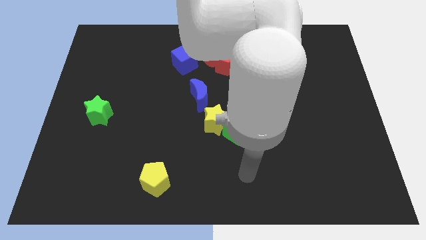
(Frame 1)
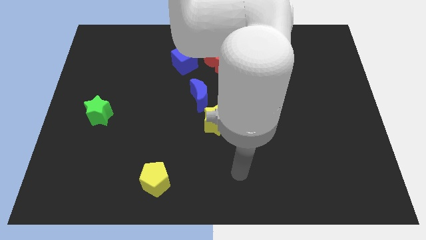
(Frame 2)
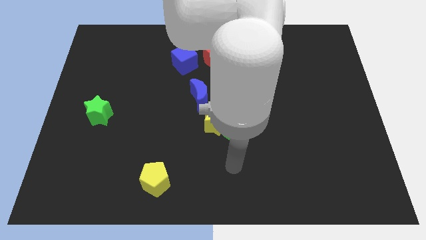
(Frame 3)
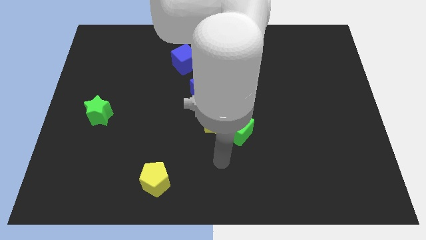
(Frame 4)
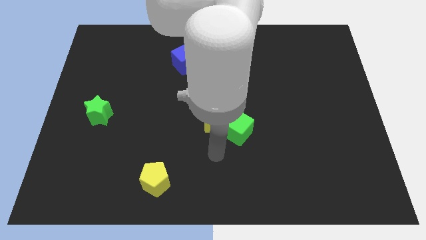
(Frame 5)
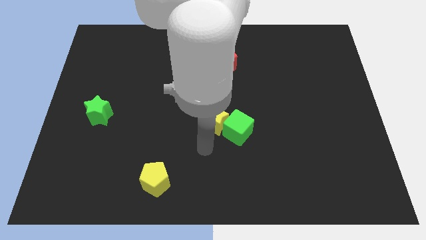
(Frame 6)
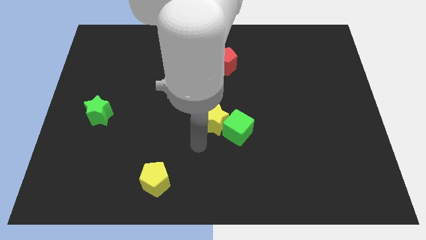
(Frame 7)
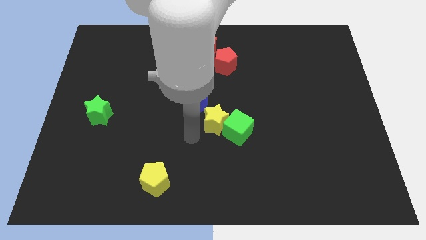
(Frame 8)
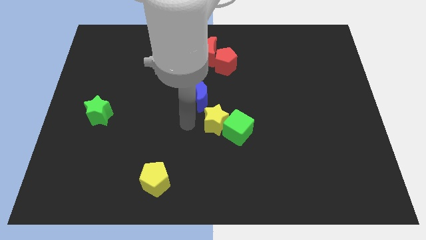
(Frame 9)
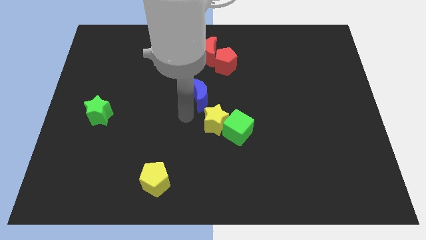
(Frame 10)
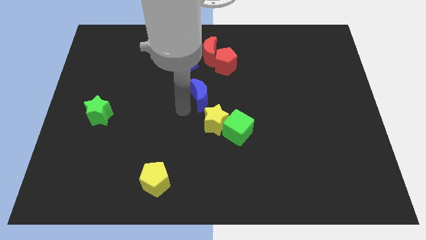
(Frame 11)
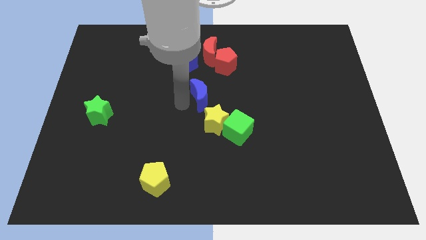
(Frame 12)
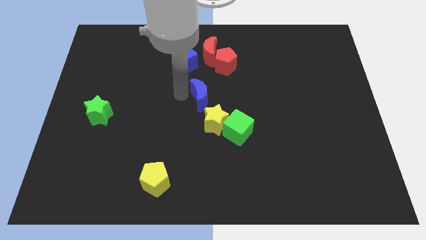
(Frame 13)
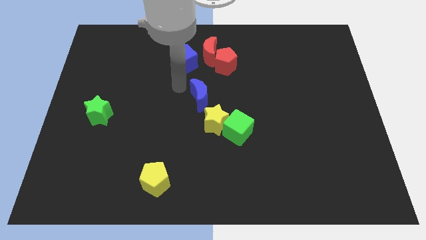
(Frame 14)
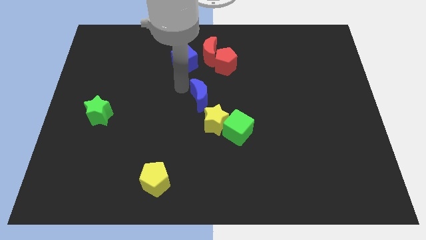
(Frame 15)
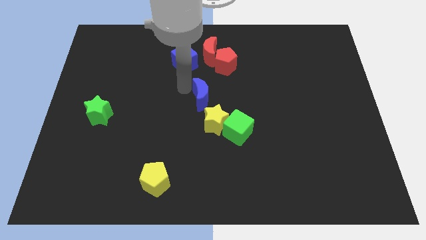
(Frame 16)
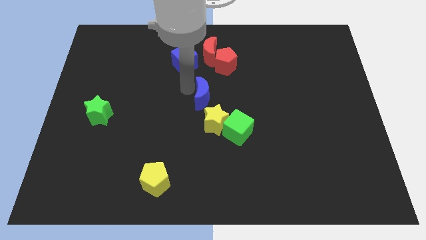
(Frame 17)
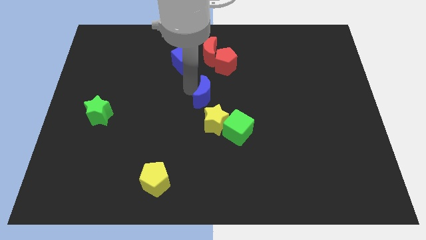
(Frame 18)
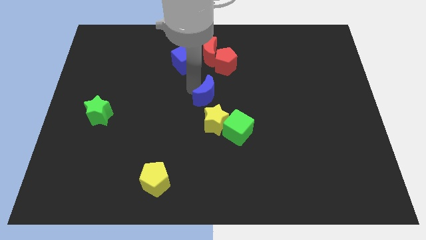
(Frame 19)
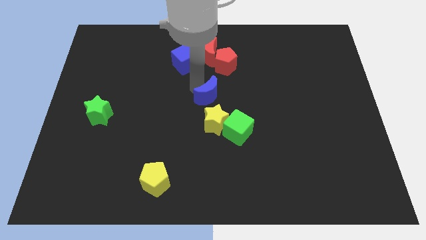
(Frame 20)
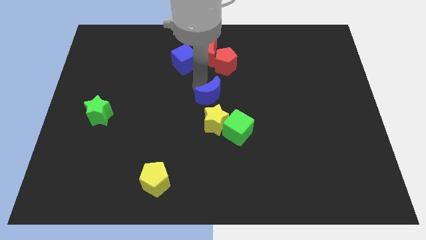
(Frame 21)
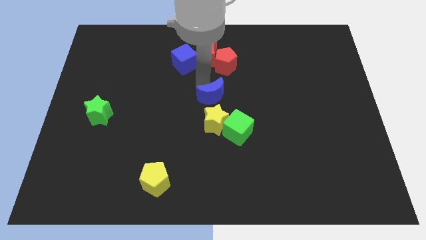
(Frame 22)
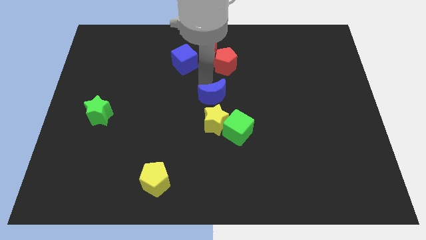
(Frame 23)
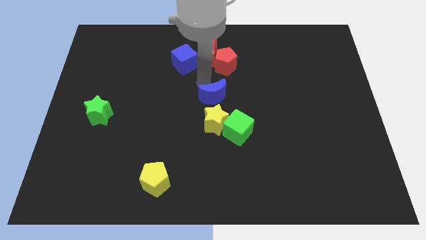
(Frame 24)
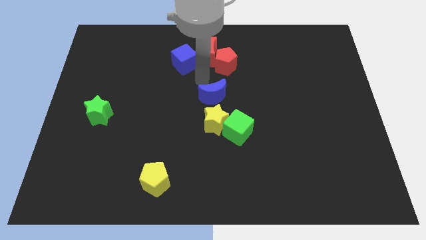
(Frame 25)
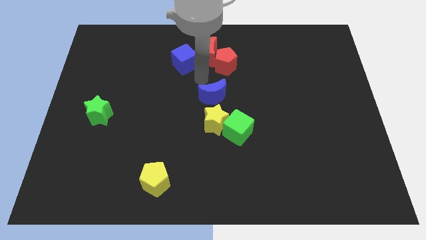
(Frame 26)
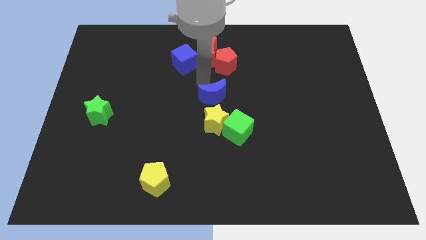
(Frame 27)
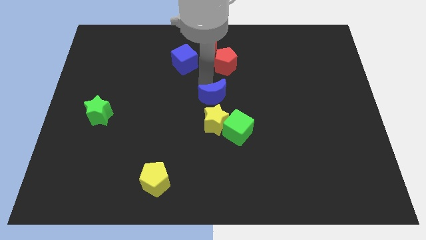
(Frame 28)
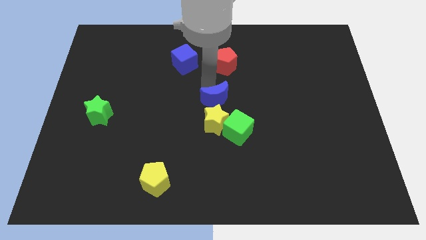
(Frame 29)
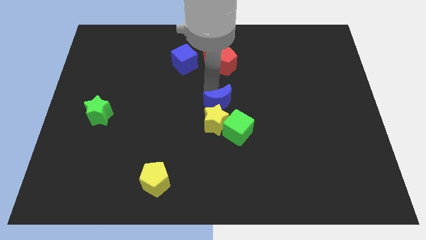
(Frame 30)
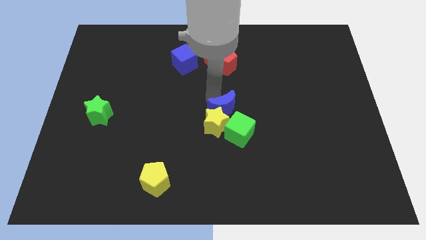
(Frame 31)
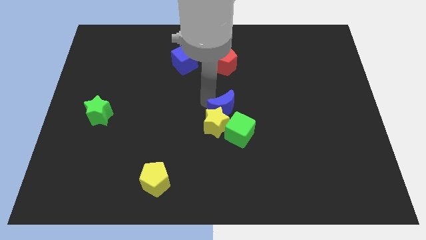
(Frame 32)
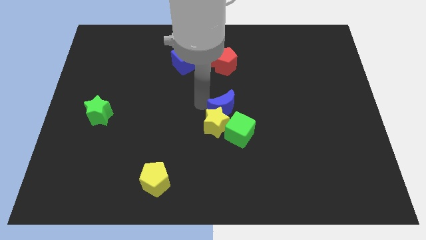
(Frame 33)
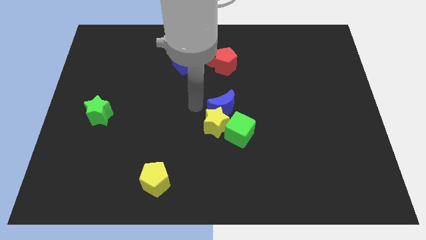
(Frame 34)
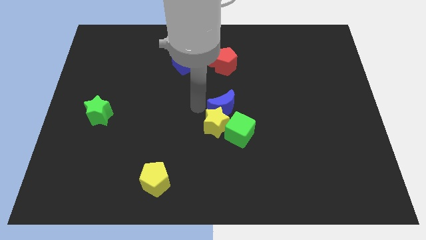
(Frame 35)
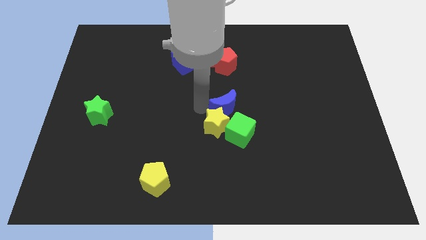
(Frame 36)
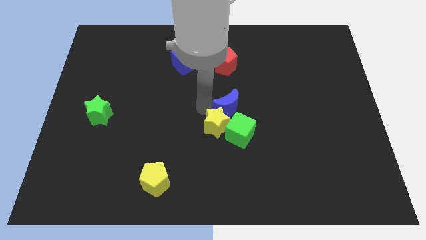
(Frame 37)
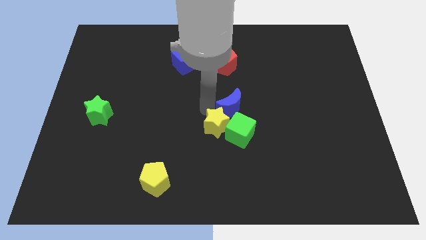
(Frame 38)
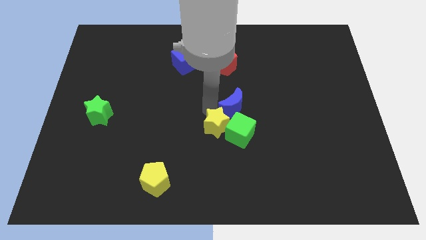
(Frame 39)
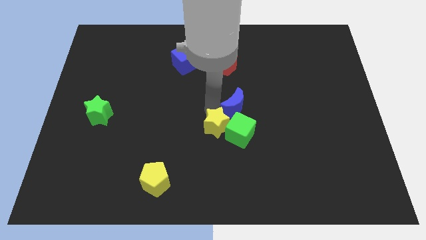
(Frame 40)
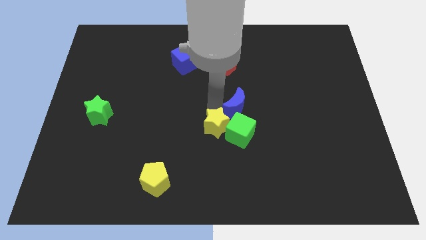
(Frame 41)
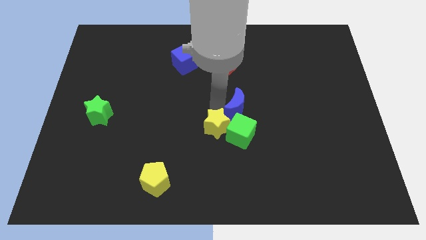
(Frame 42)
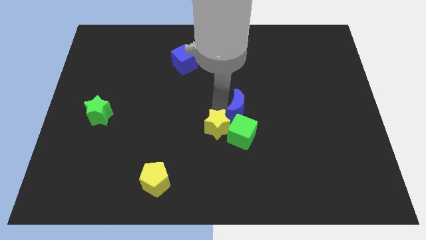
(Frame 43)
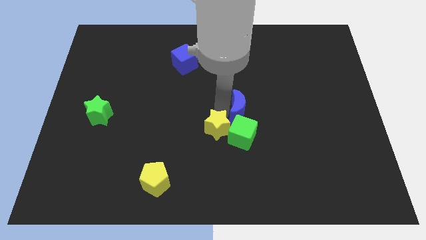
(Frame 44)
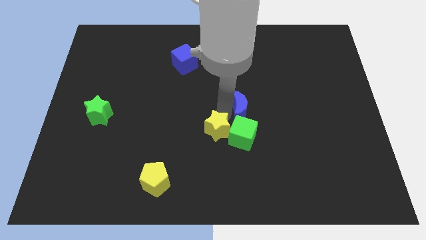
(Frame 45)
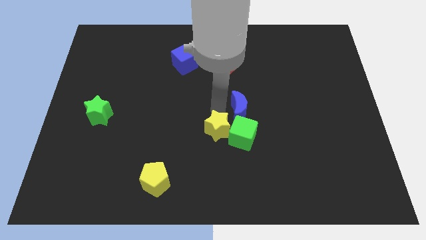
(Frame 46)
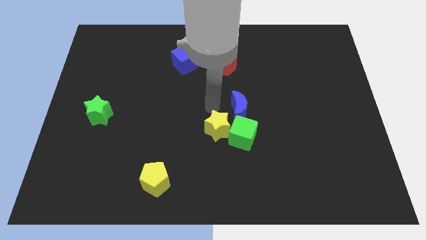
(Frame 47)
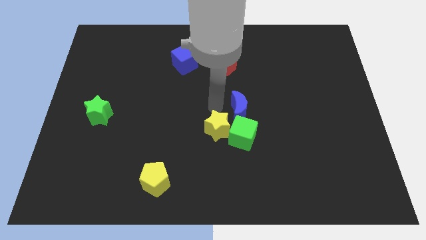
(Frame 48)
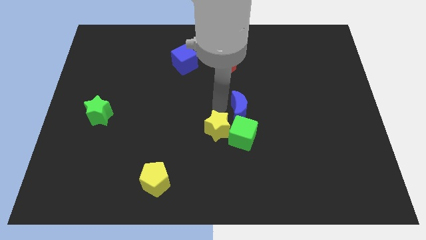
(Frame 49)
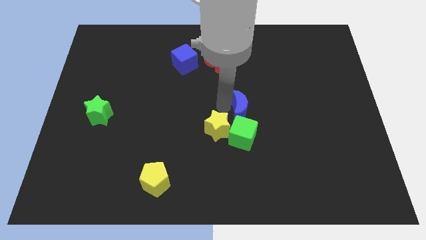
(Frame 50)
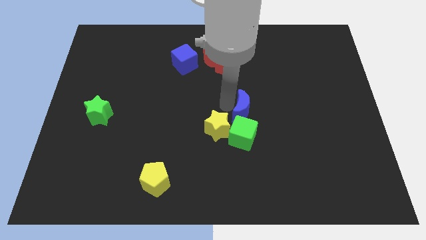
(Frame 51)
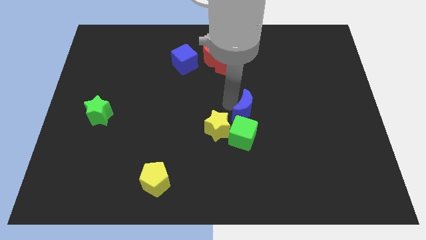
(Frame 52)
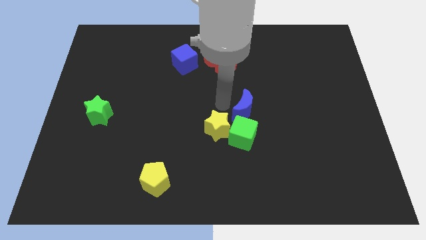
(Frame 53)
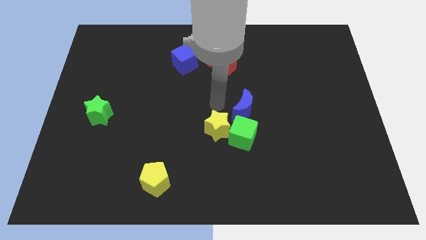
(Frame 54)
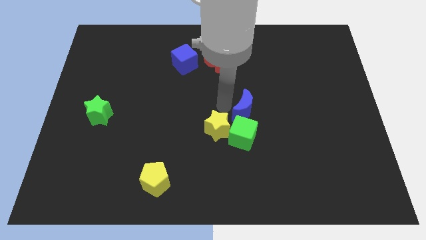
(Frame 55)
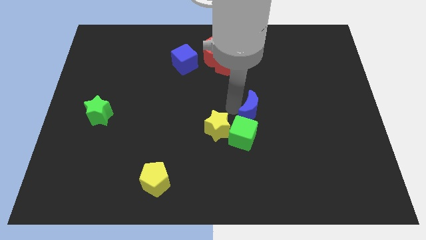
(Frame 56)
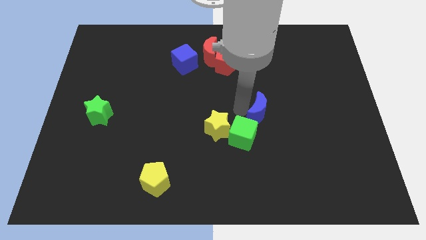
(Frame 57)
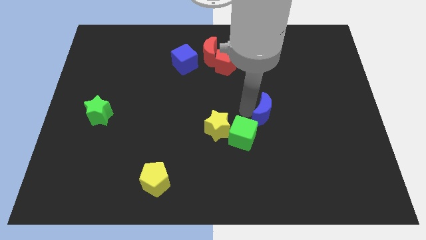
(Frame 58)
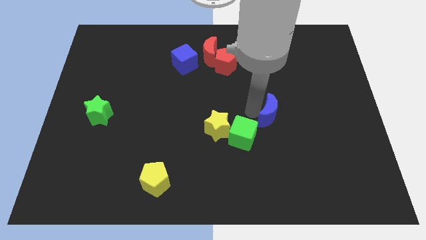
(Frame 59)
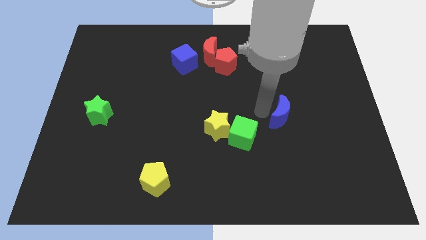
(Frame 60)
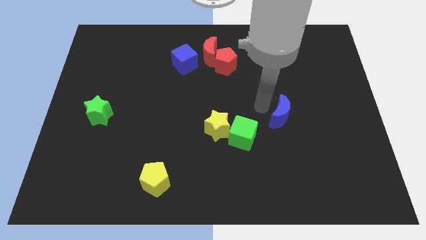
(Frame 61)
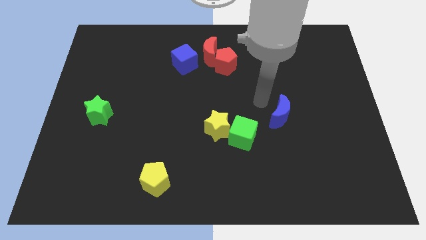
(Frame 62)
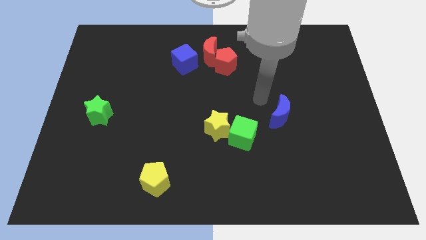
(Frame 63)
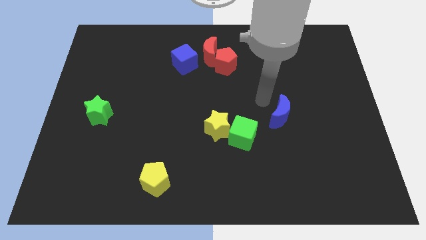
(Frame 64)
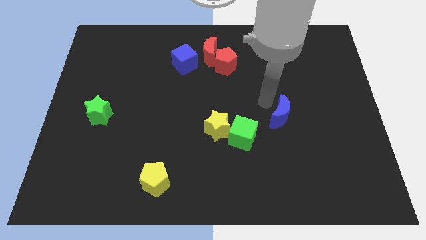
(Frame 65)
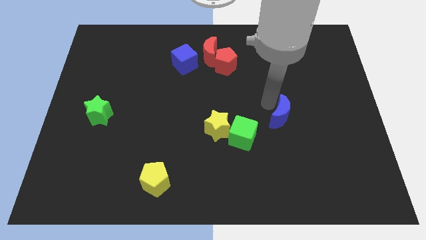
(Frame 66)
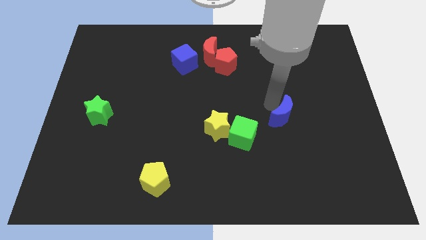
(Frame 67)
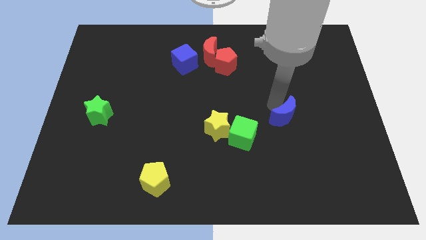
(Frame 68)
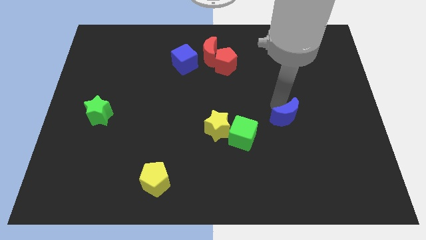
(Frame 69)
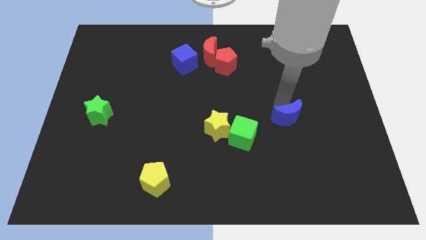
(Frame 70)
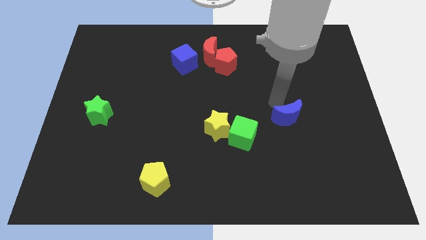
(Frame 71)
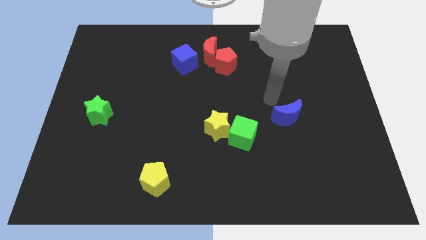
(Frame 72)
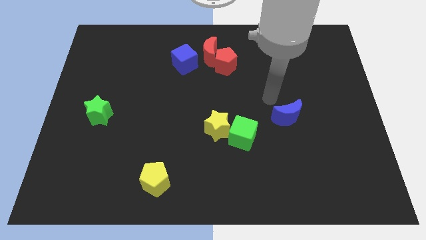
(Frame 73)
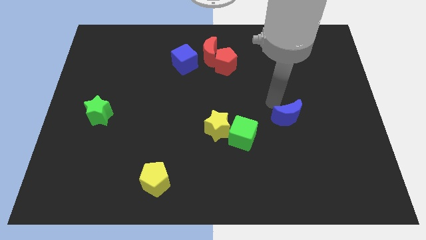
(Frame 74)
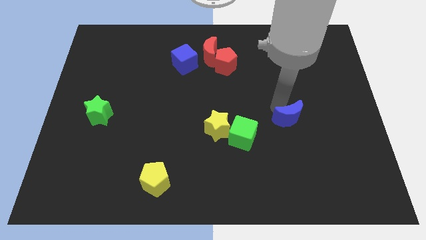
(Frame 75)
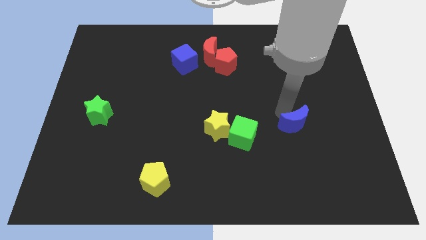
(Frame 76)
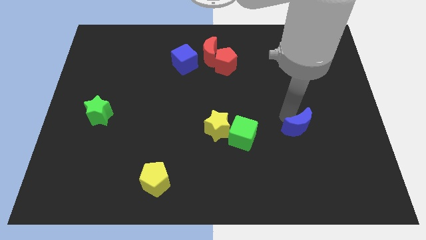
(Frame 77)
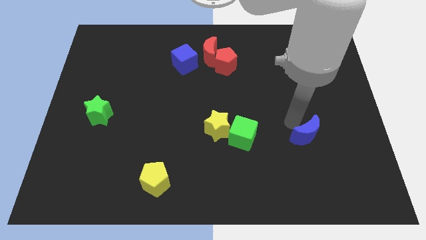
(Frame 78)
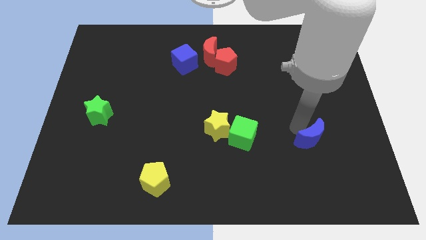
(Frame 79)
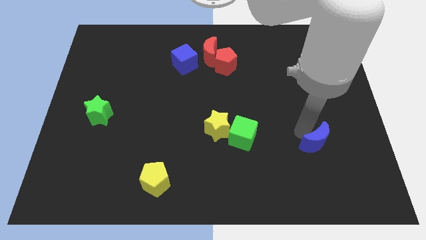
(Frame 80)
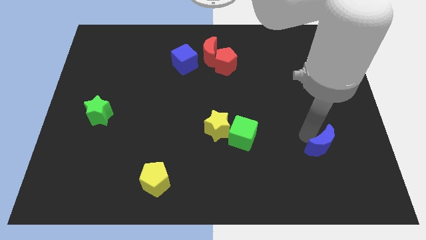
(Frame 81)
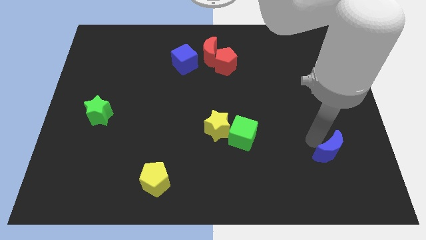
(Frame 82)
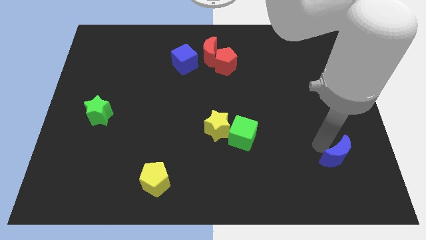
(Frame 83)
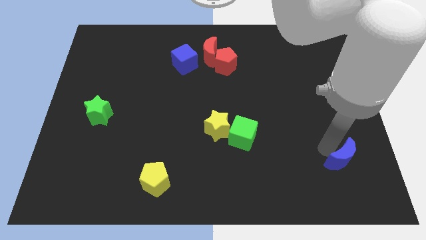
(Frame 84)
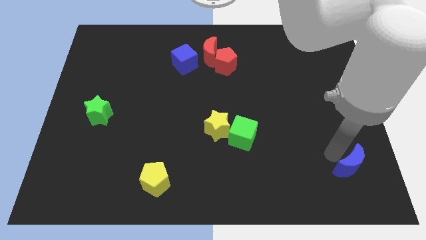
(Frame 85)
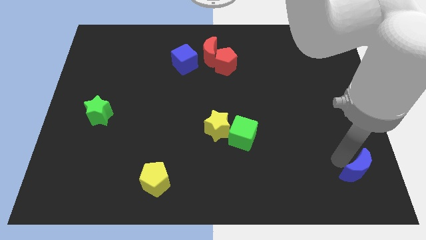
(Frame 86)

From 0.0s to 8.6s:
put the blue moon to the lower right corner
